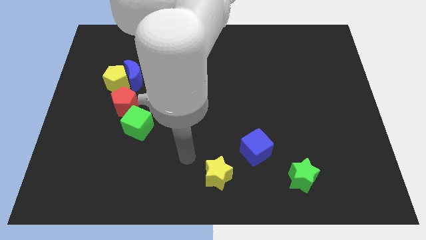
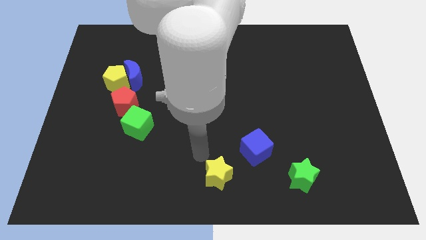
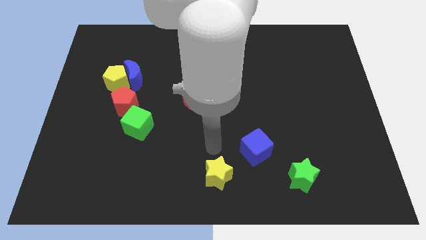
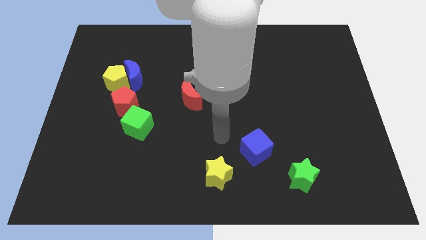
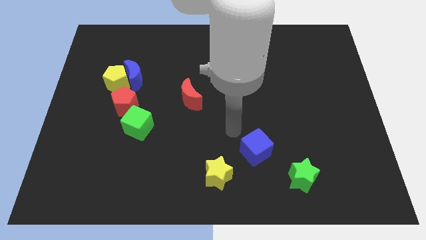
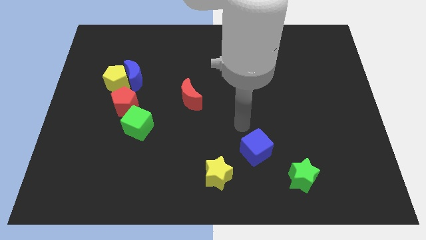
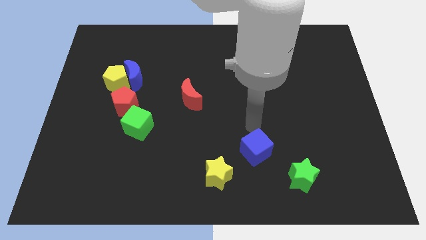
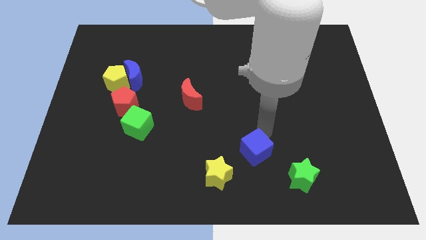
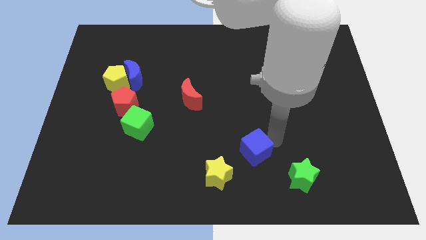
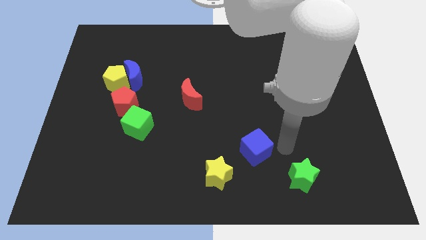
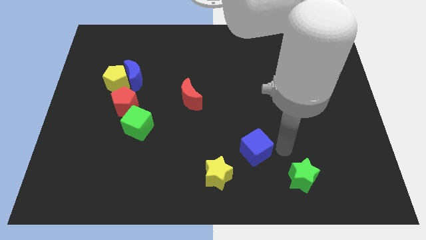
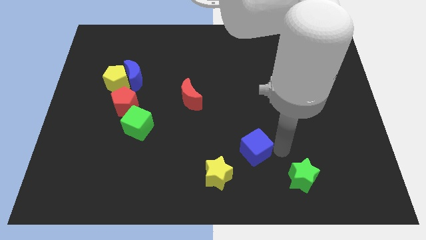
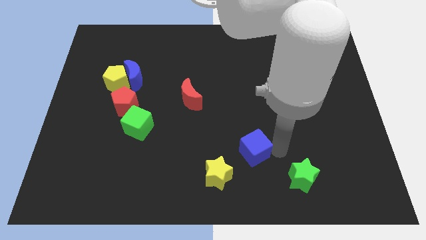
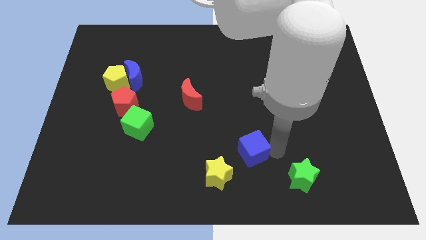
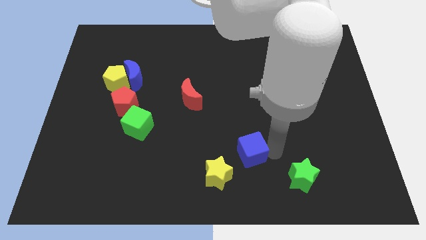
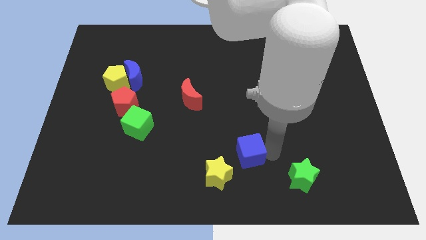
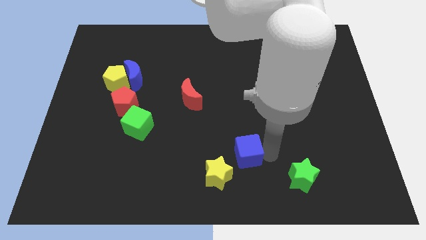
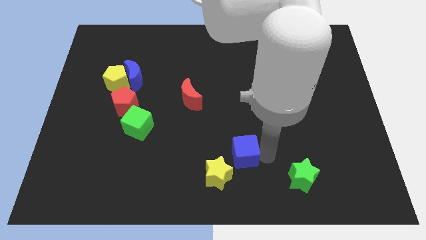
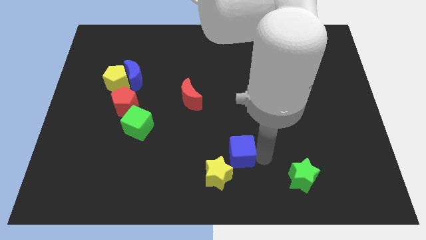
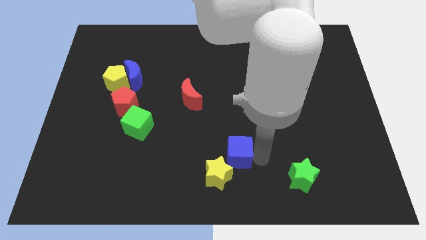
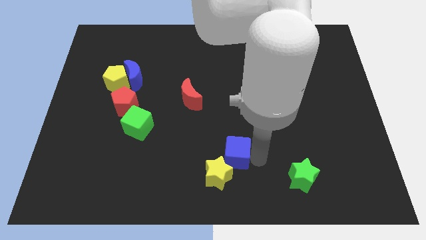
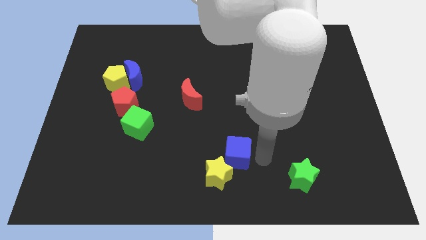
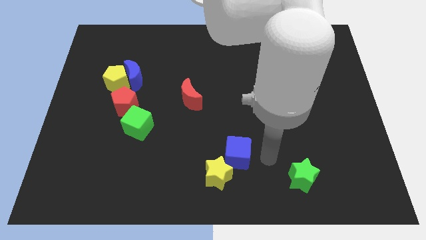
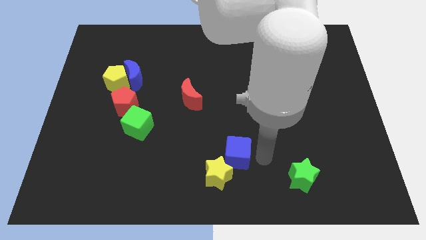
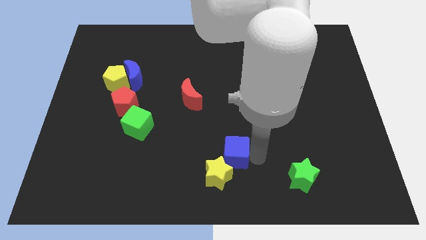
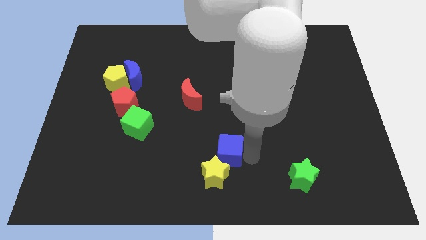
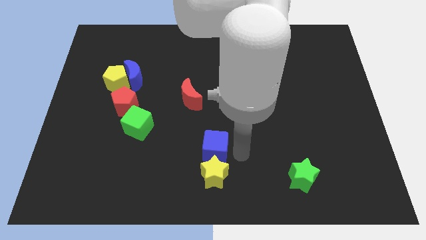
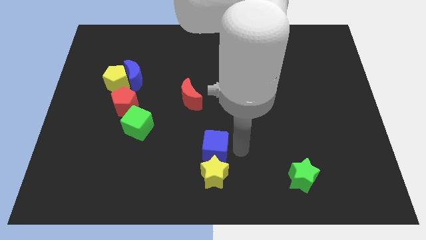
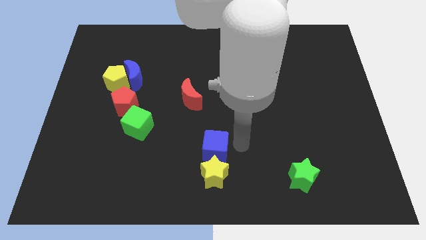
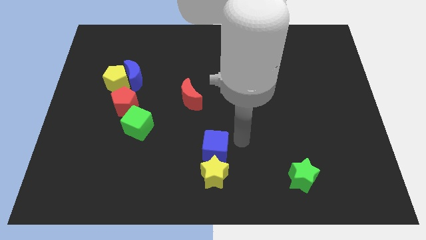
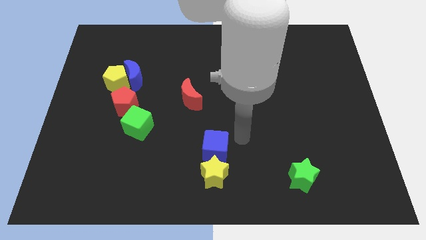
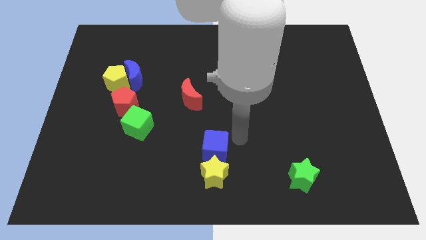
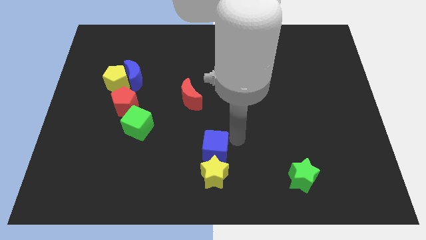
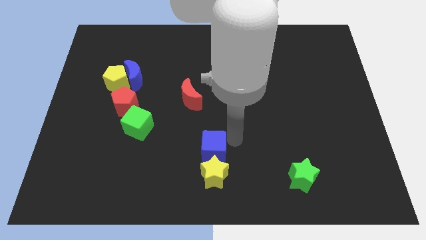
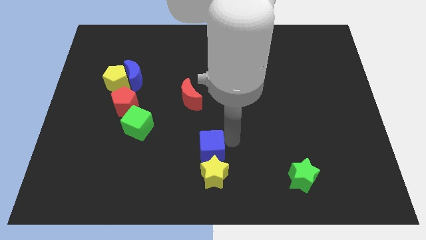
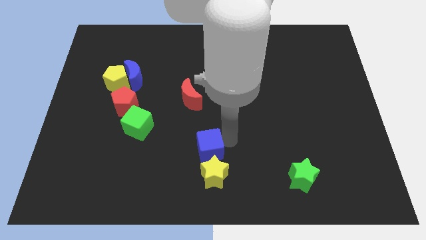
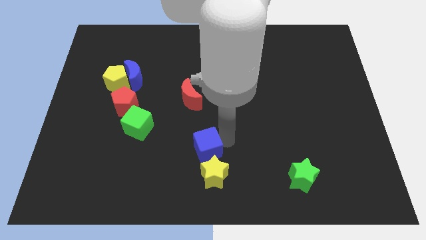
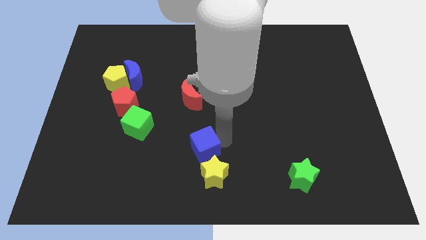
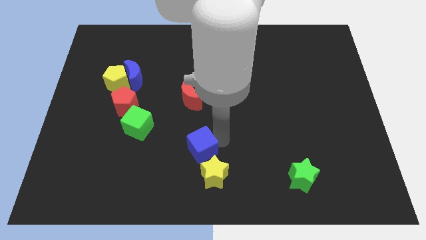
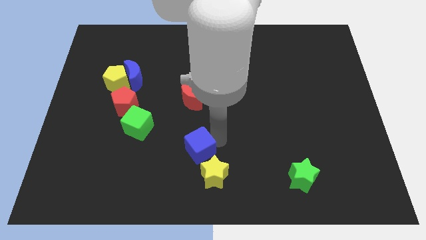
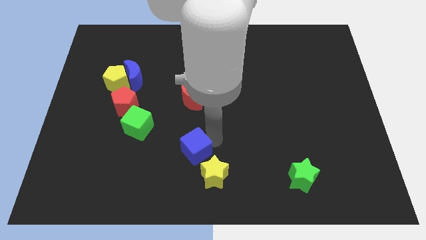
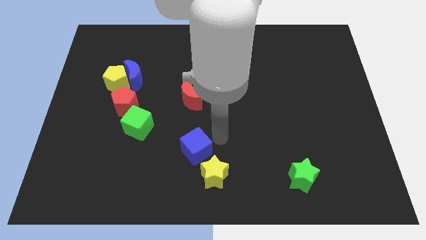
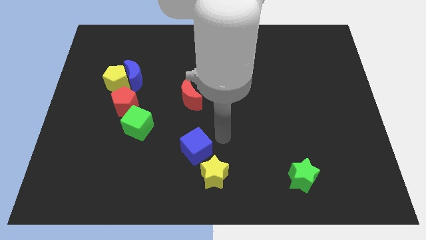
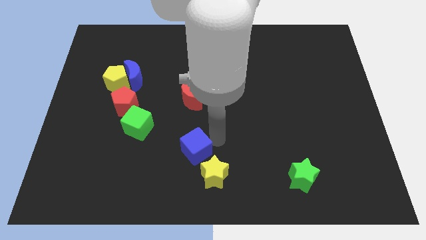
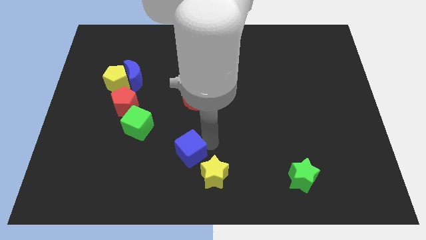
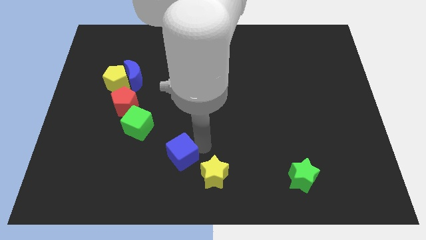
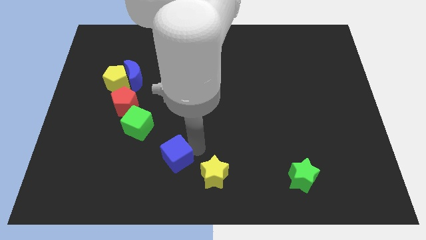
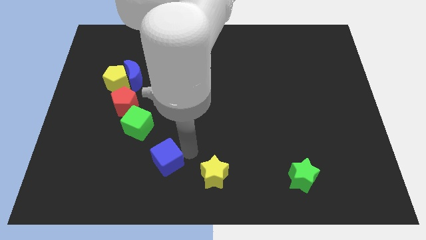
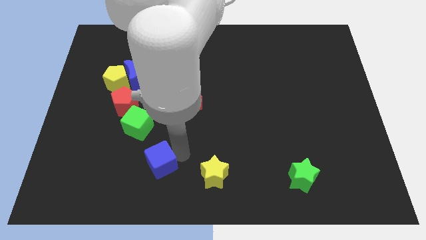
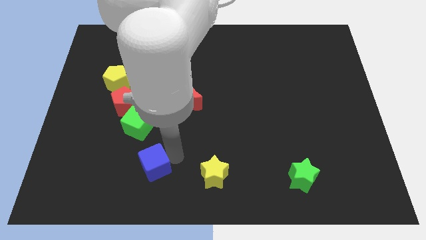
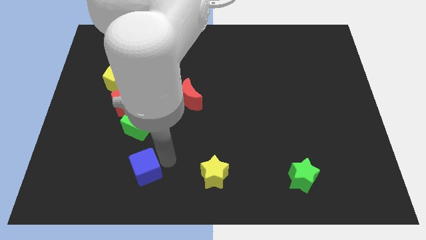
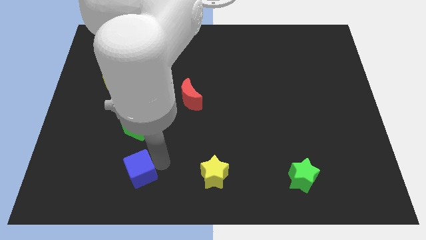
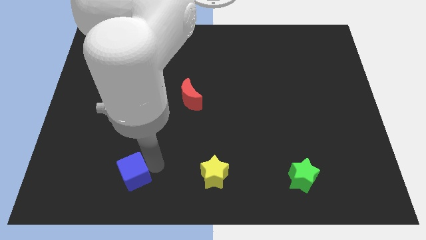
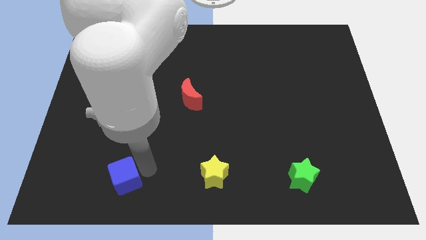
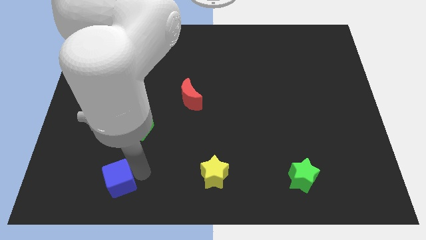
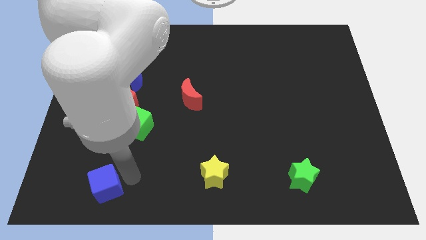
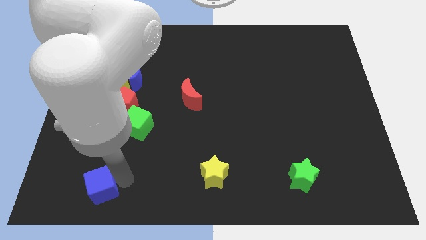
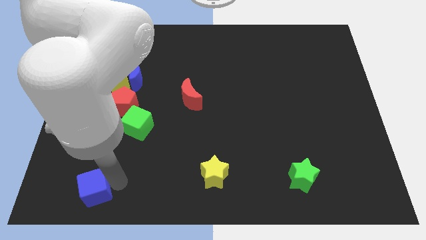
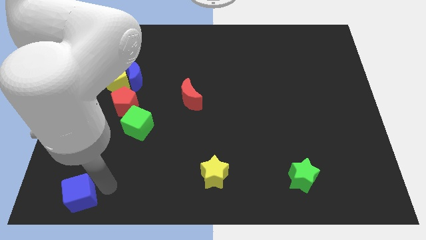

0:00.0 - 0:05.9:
move the blue cube to the lower left corner

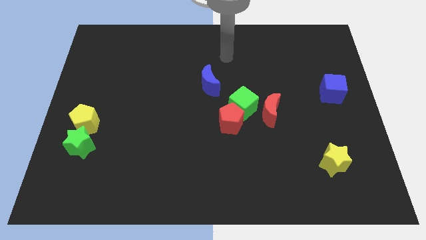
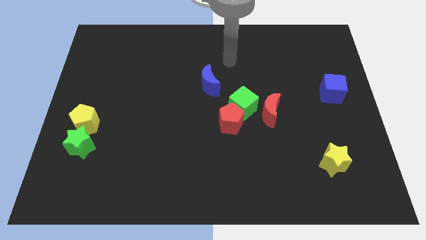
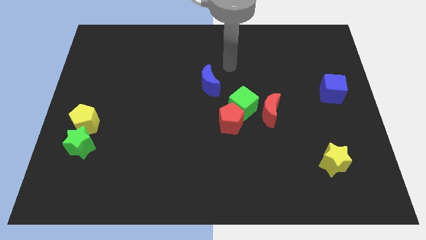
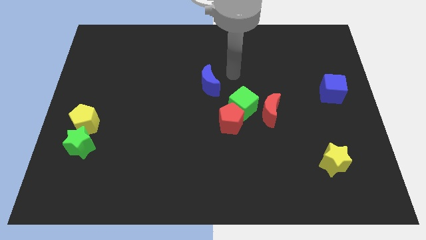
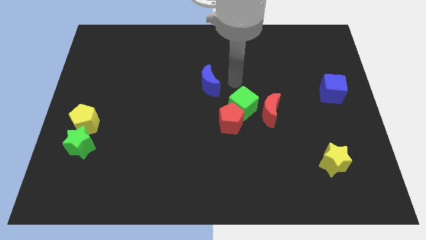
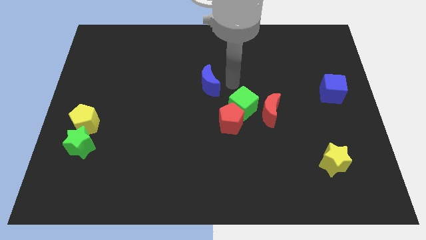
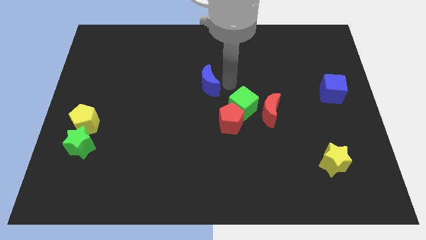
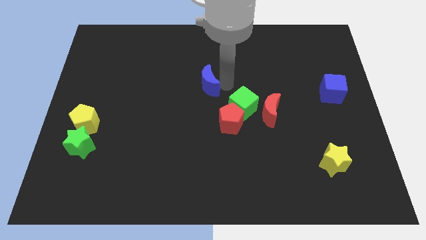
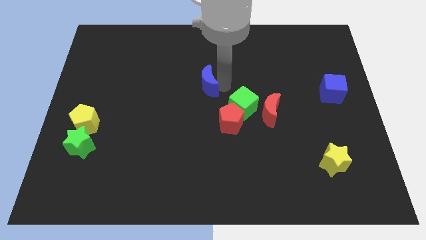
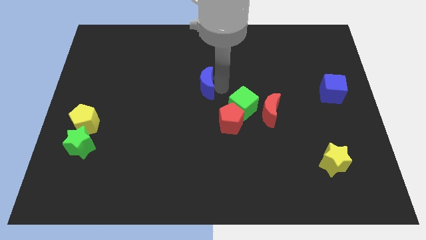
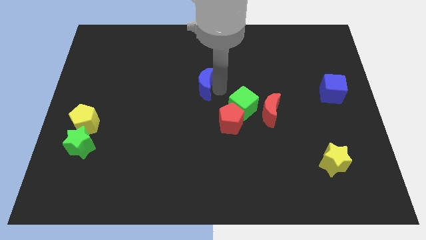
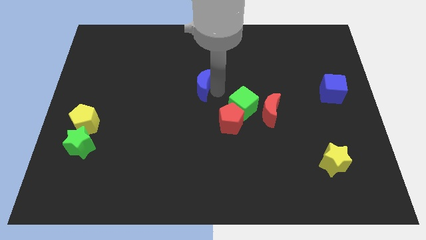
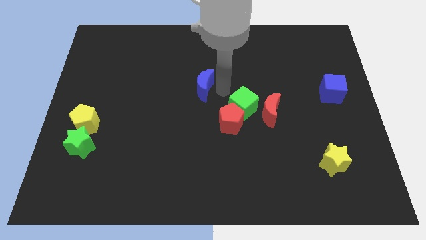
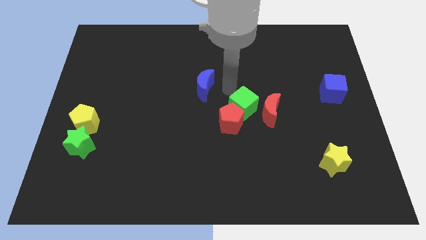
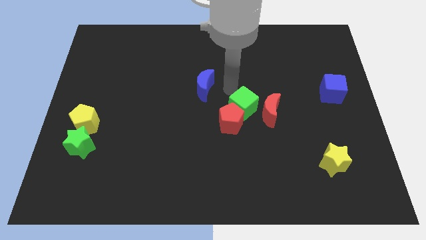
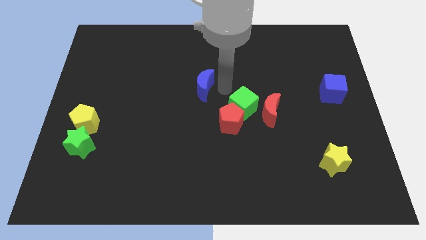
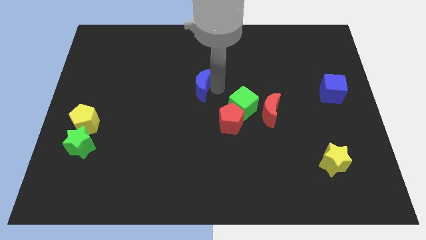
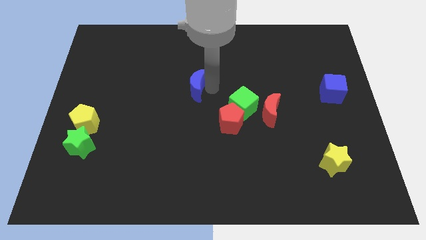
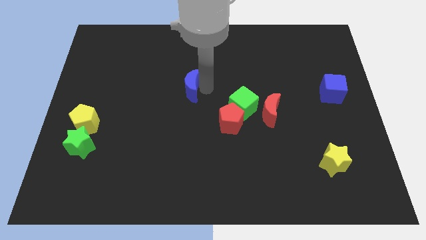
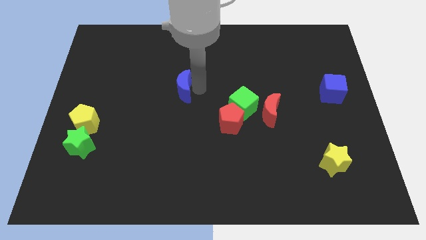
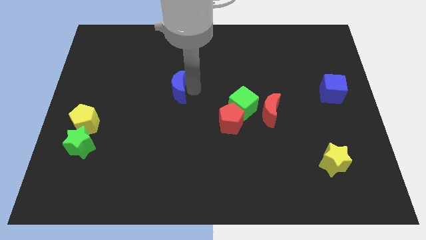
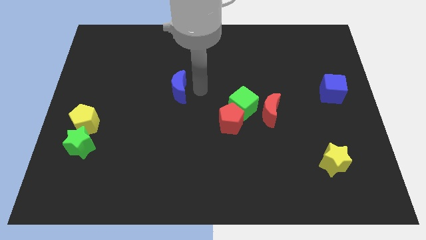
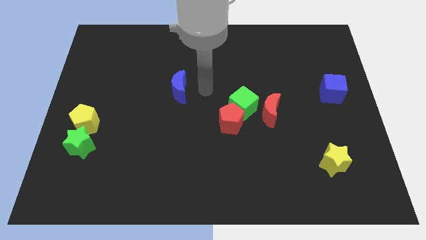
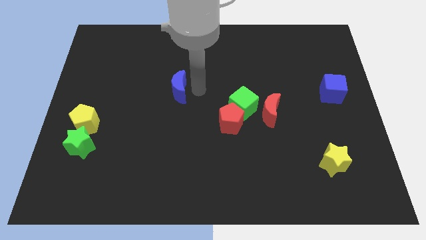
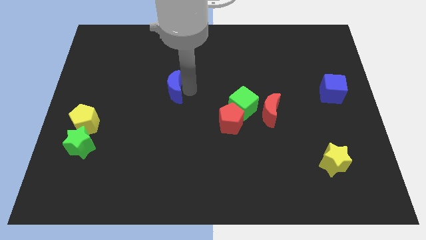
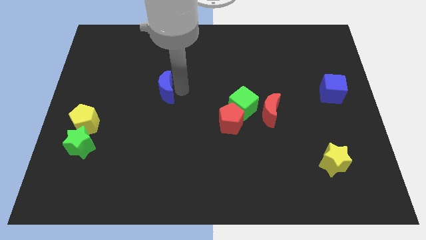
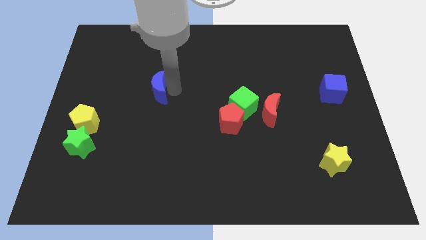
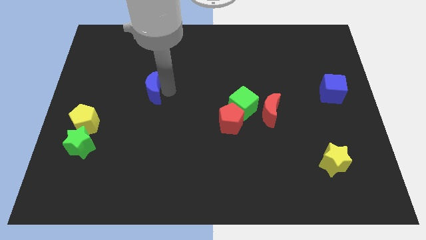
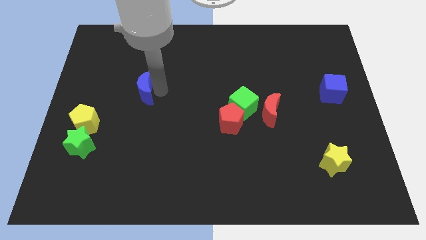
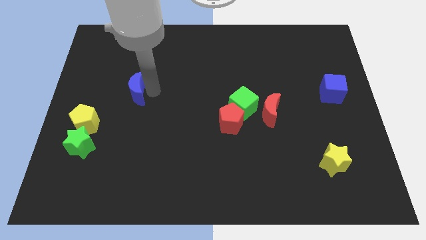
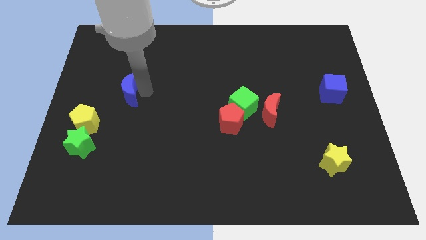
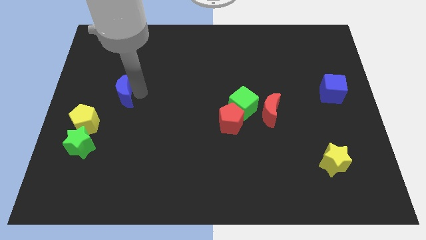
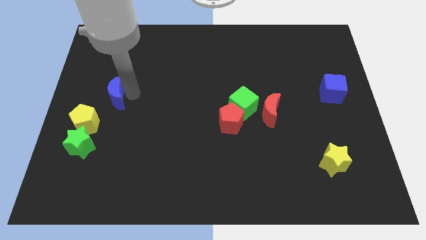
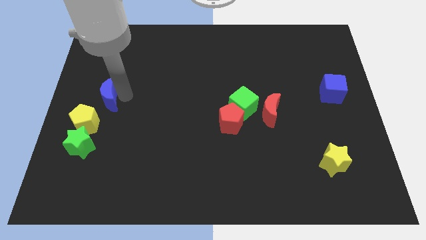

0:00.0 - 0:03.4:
push the blue moon to the left side
